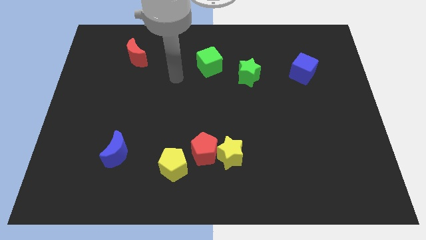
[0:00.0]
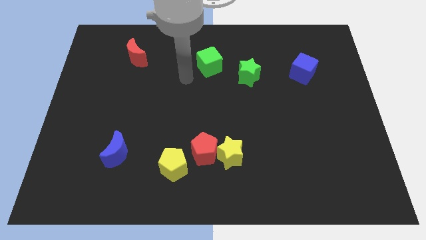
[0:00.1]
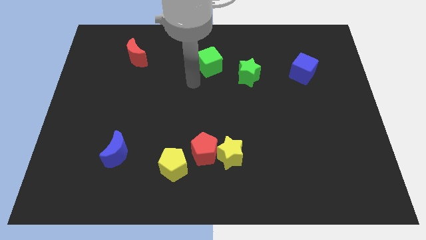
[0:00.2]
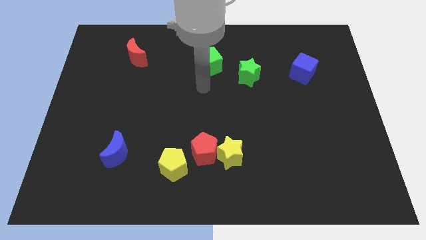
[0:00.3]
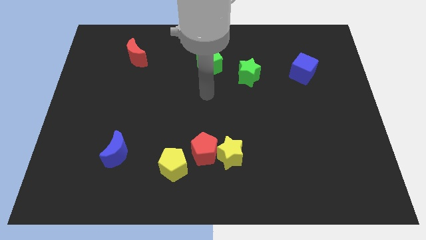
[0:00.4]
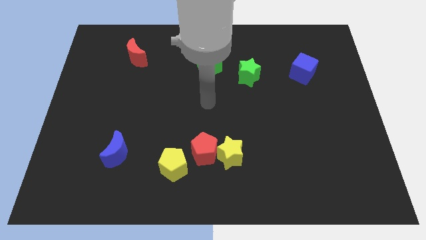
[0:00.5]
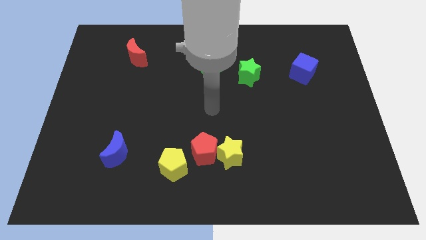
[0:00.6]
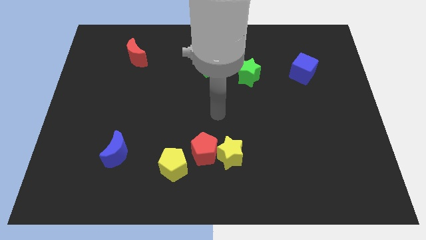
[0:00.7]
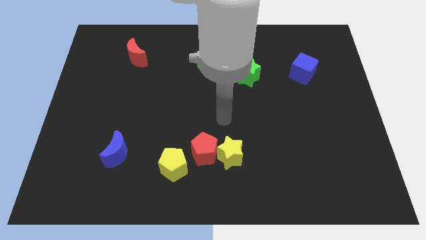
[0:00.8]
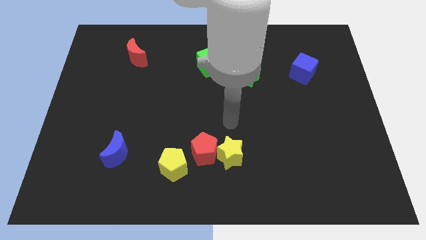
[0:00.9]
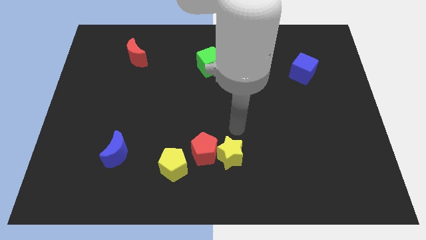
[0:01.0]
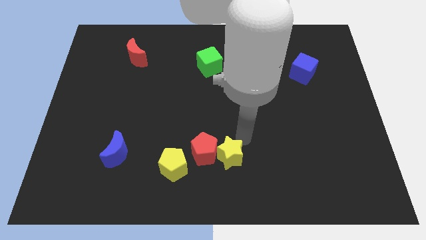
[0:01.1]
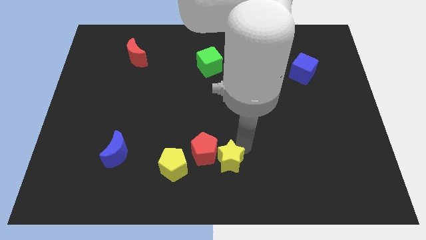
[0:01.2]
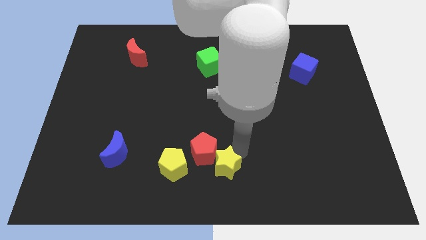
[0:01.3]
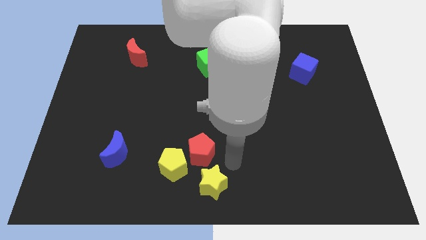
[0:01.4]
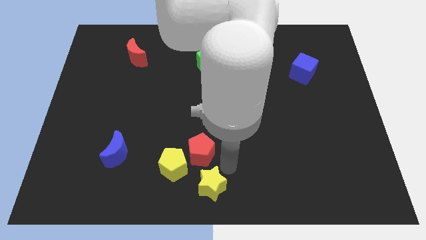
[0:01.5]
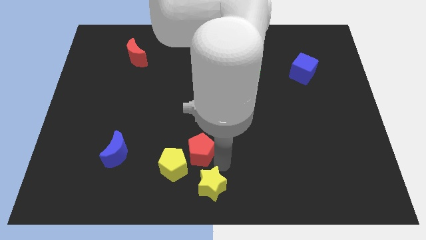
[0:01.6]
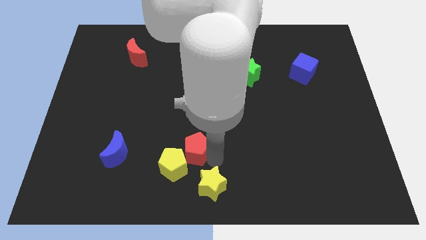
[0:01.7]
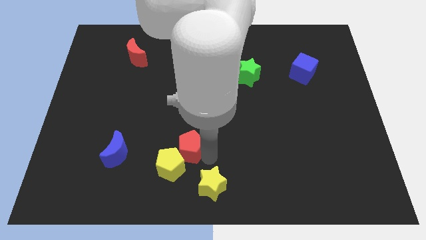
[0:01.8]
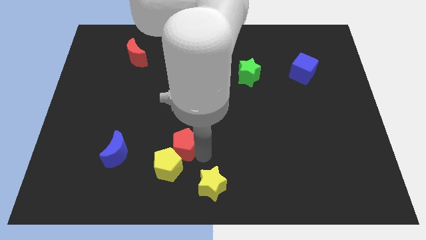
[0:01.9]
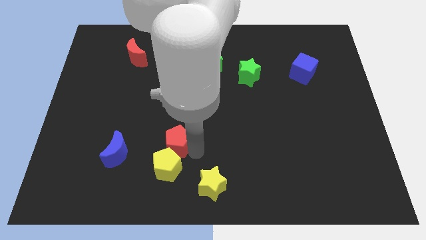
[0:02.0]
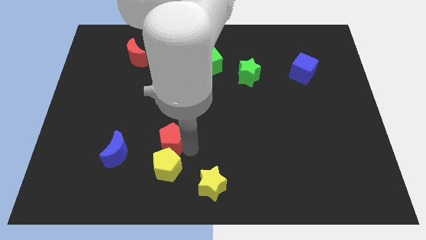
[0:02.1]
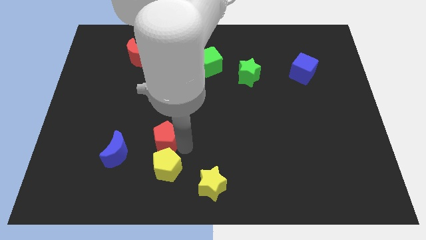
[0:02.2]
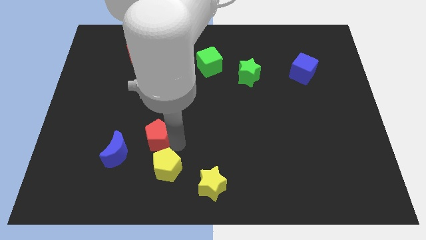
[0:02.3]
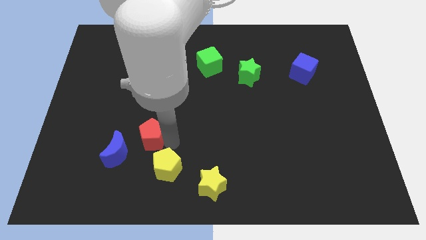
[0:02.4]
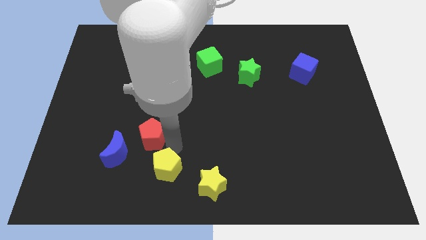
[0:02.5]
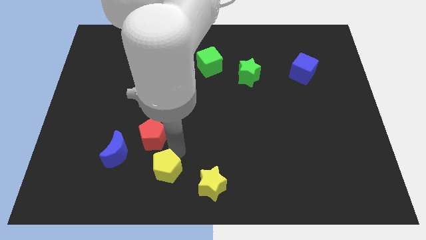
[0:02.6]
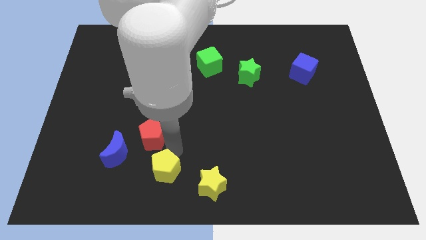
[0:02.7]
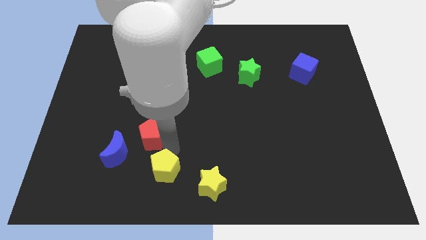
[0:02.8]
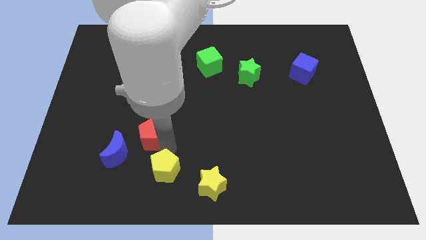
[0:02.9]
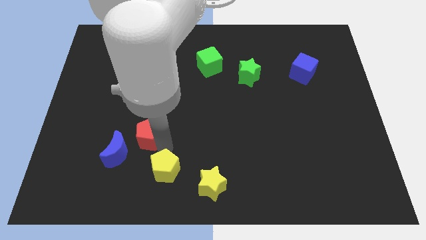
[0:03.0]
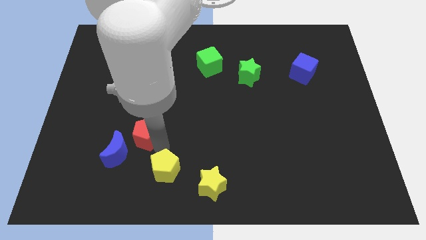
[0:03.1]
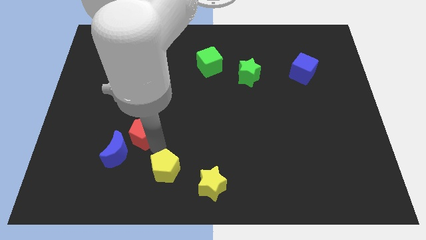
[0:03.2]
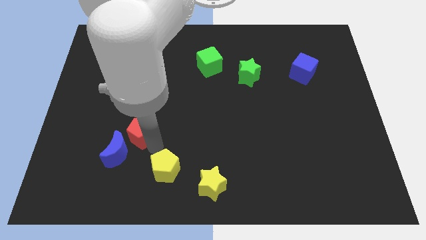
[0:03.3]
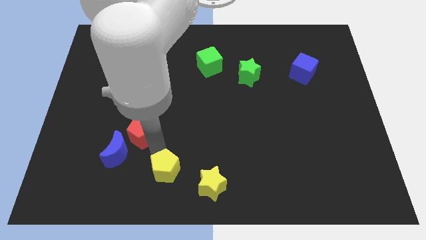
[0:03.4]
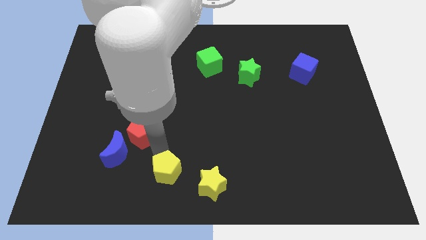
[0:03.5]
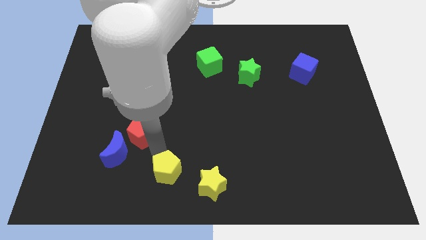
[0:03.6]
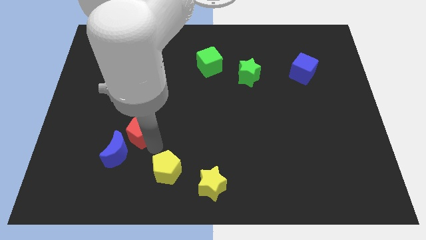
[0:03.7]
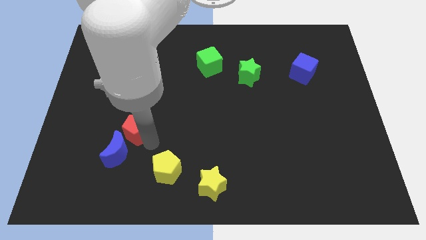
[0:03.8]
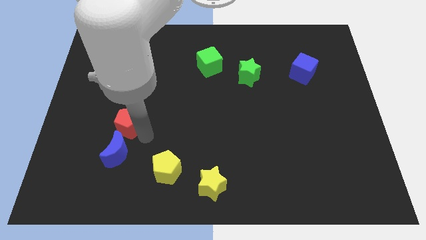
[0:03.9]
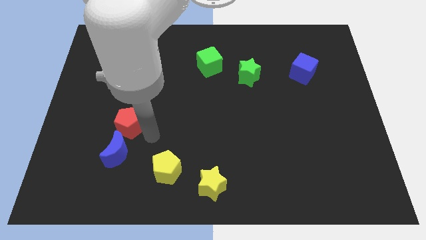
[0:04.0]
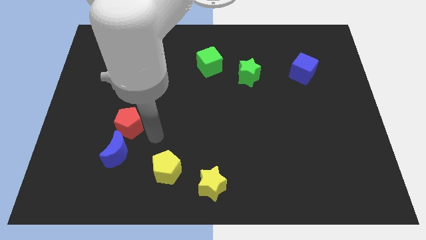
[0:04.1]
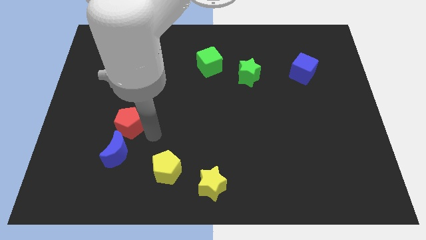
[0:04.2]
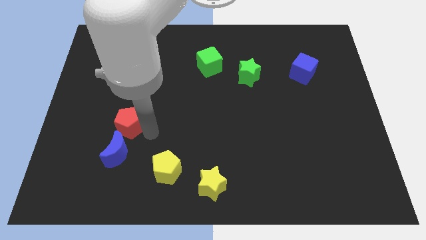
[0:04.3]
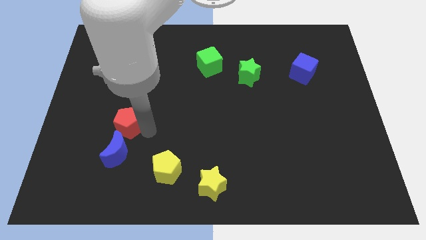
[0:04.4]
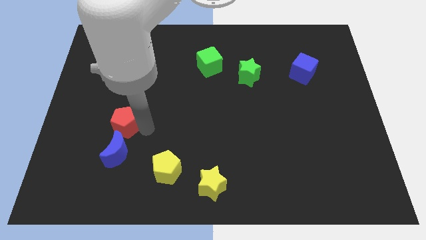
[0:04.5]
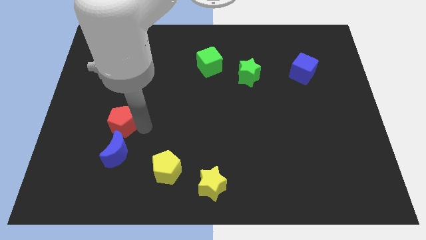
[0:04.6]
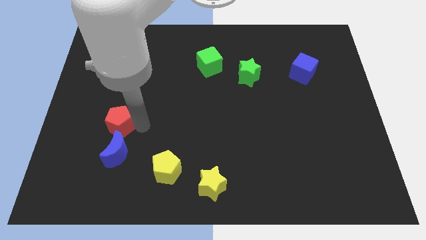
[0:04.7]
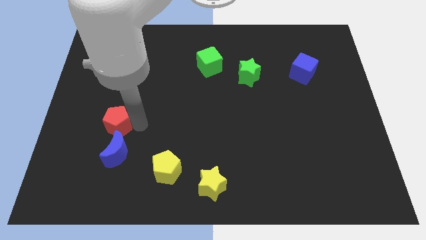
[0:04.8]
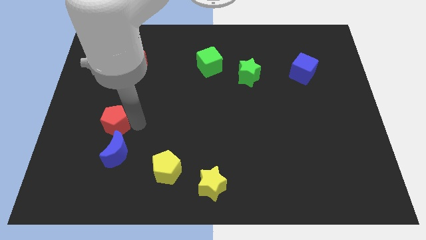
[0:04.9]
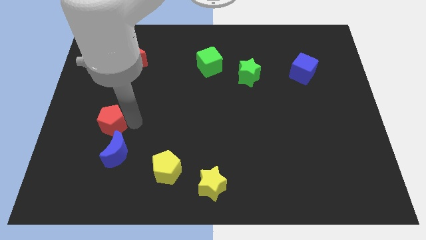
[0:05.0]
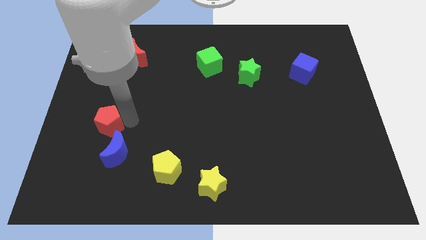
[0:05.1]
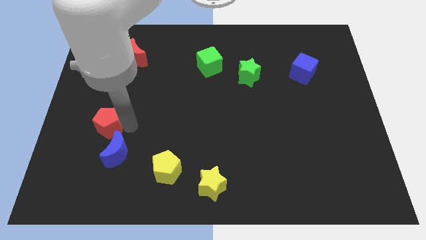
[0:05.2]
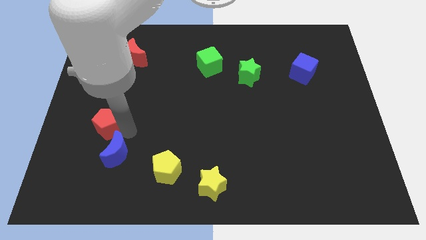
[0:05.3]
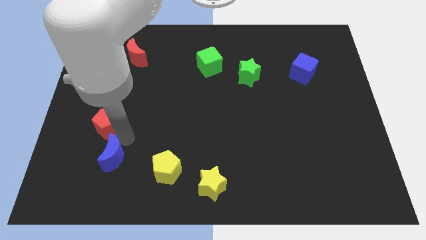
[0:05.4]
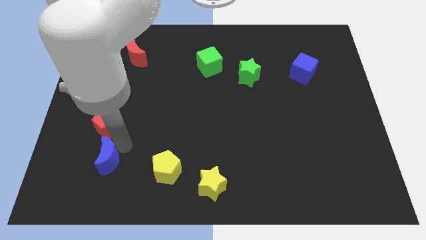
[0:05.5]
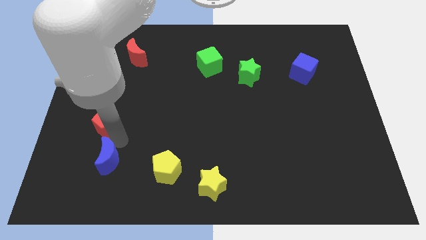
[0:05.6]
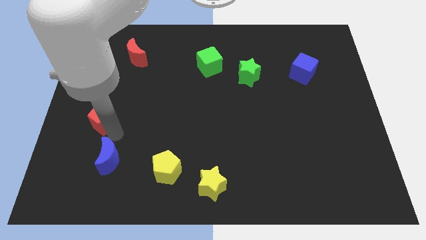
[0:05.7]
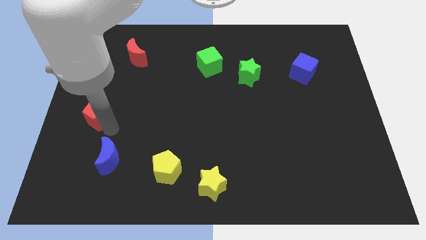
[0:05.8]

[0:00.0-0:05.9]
put the red pentagon to the left side of the board

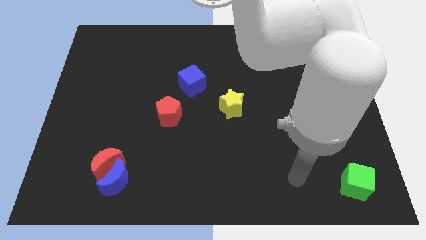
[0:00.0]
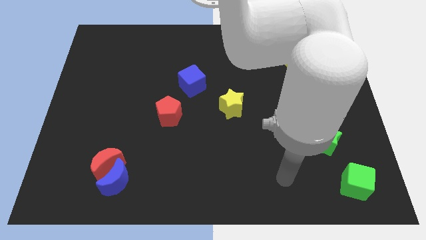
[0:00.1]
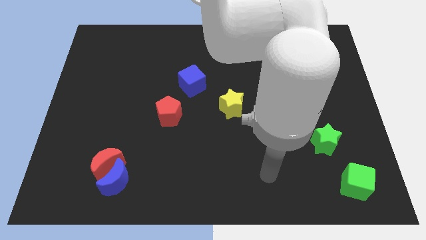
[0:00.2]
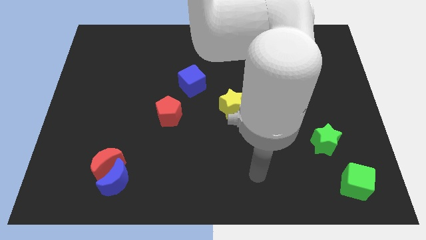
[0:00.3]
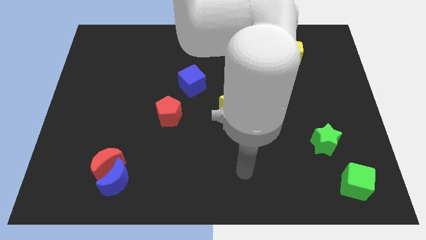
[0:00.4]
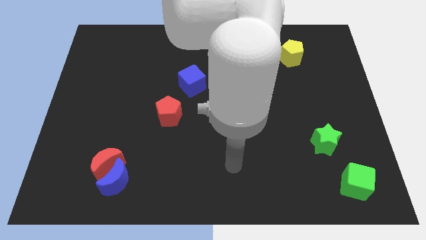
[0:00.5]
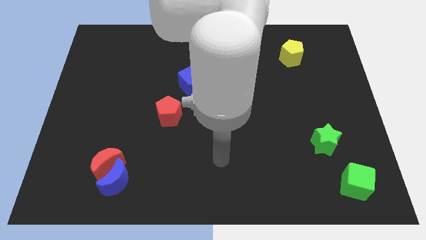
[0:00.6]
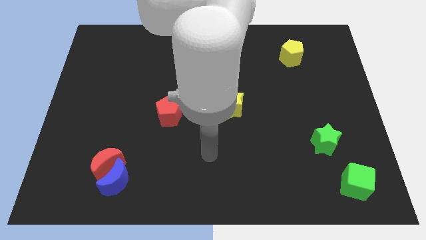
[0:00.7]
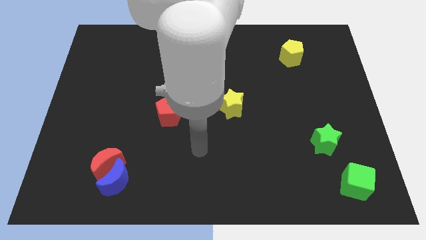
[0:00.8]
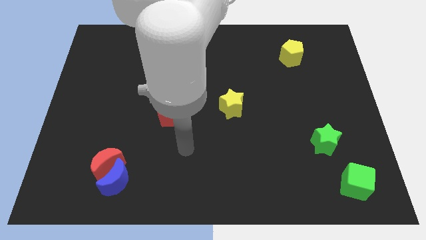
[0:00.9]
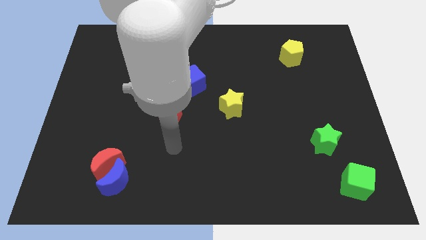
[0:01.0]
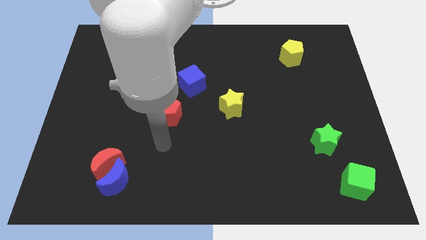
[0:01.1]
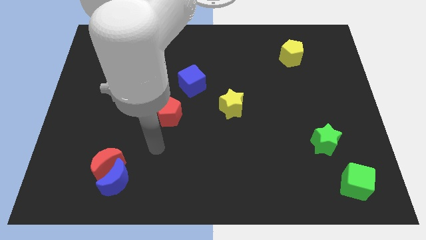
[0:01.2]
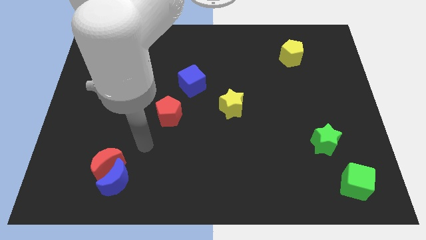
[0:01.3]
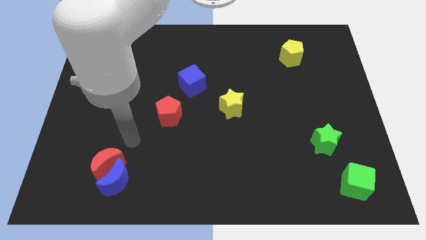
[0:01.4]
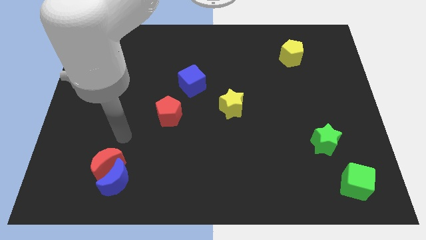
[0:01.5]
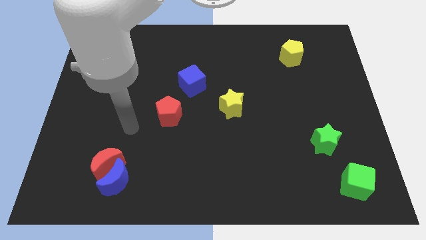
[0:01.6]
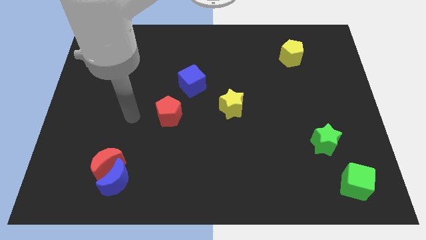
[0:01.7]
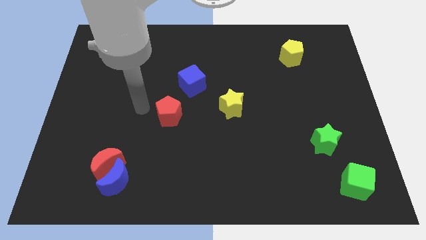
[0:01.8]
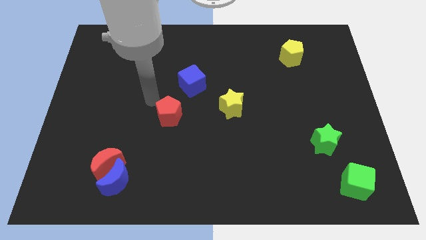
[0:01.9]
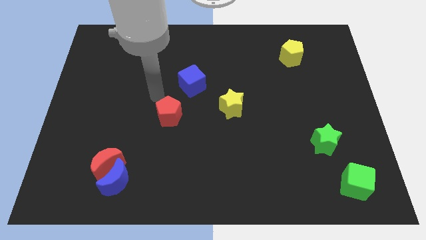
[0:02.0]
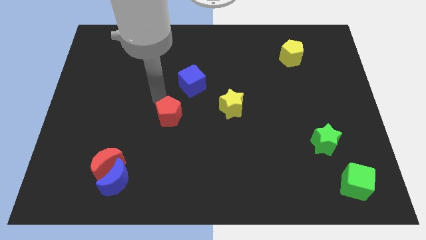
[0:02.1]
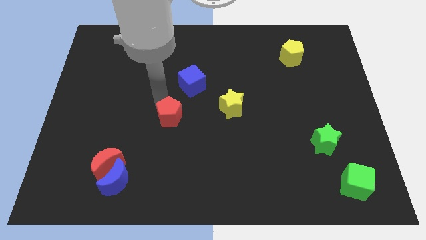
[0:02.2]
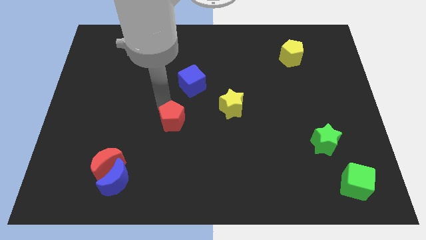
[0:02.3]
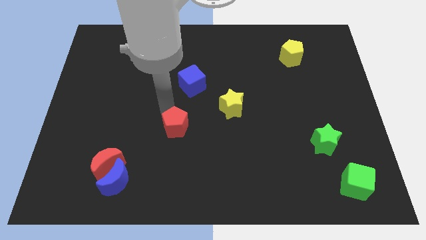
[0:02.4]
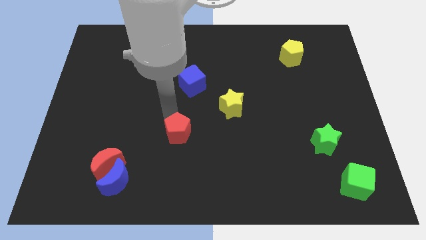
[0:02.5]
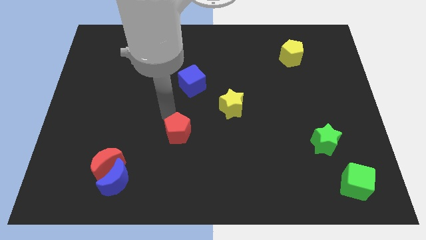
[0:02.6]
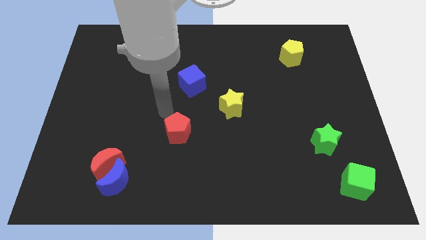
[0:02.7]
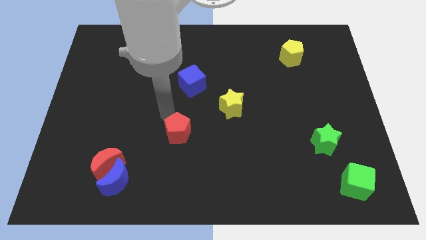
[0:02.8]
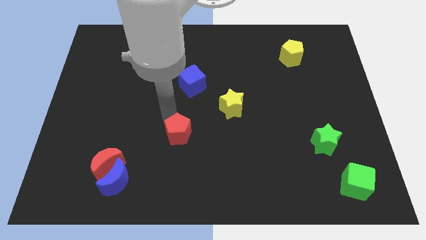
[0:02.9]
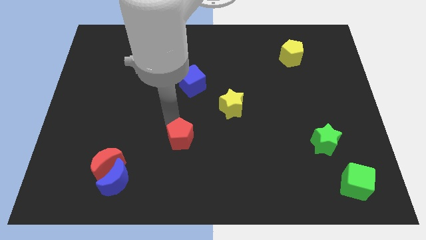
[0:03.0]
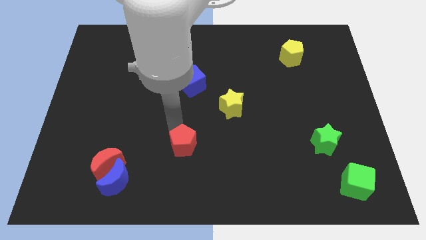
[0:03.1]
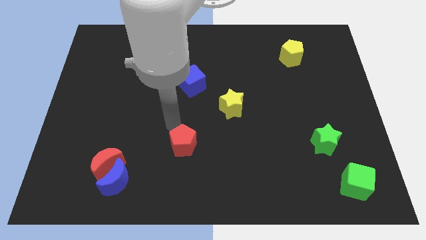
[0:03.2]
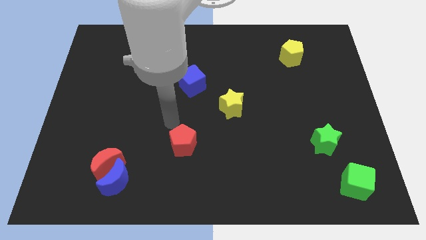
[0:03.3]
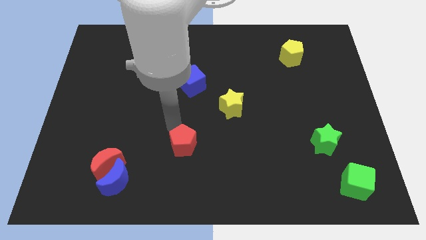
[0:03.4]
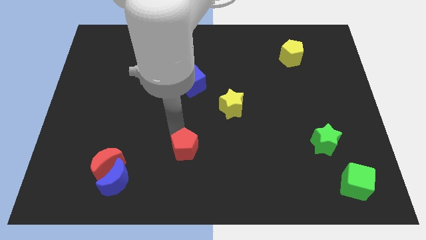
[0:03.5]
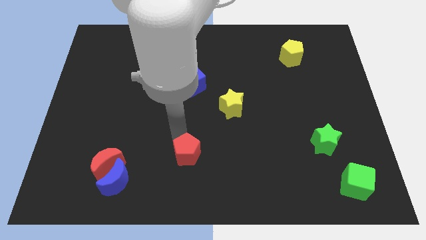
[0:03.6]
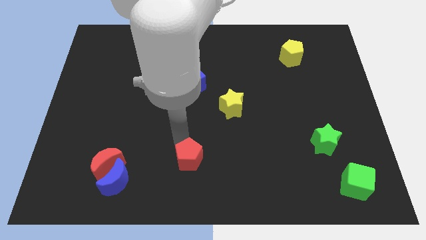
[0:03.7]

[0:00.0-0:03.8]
move the red pentagon to the bottom
